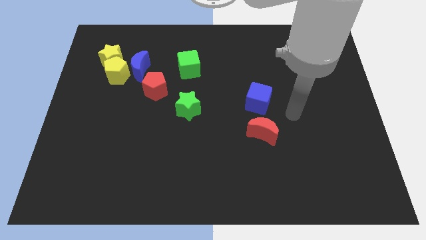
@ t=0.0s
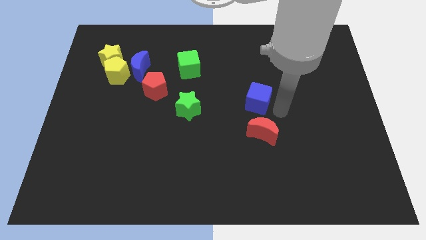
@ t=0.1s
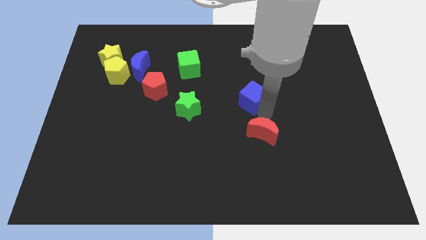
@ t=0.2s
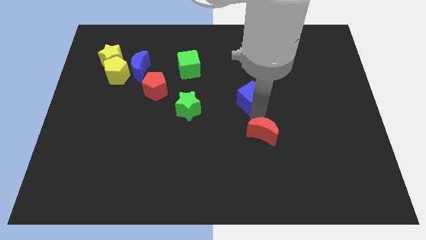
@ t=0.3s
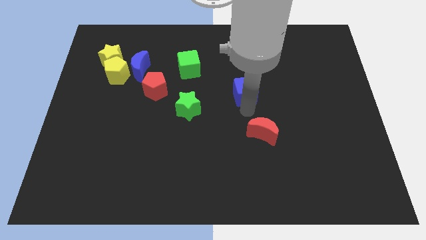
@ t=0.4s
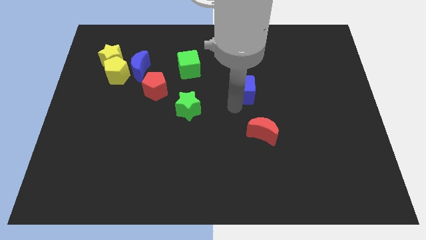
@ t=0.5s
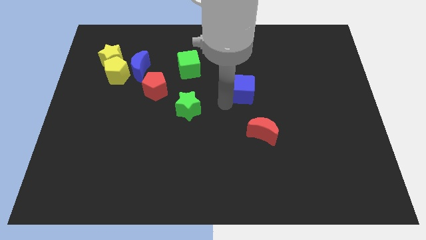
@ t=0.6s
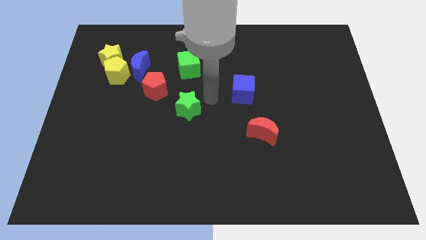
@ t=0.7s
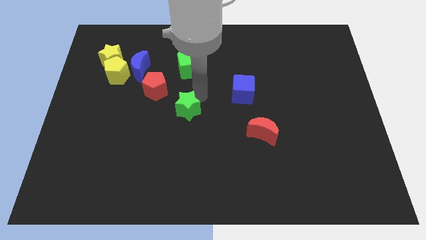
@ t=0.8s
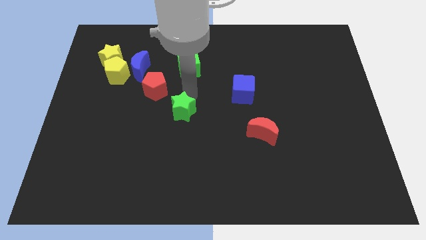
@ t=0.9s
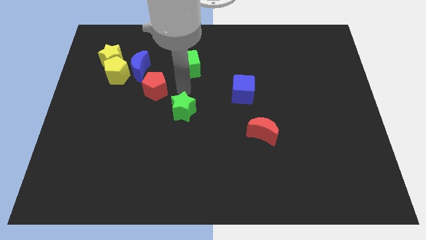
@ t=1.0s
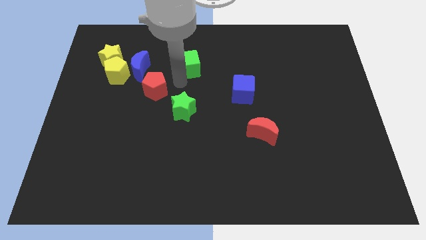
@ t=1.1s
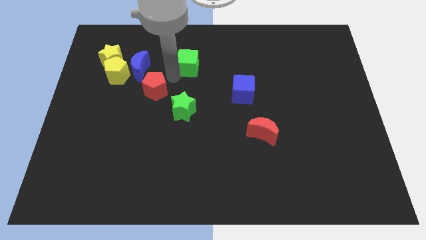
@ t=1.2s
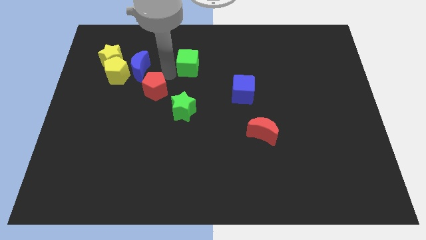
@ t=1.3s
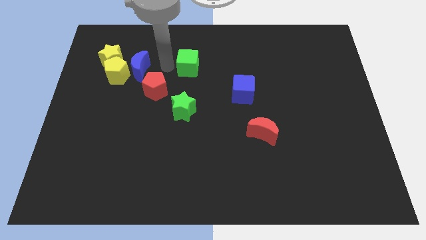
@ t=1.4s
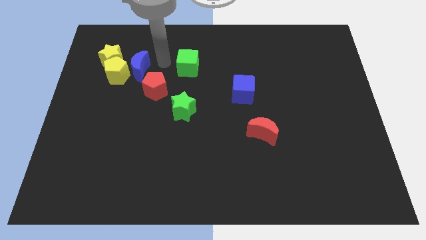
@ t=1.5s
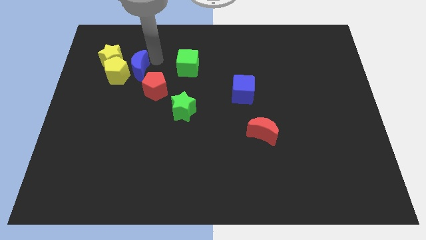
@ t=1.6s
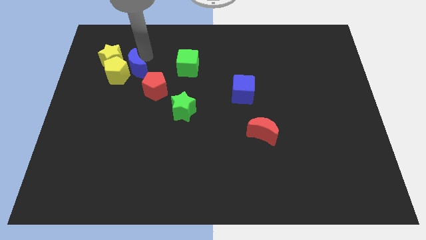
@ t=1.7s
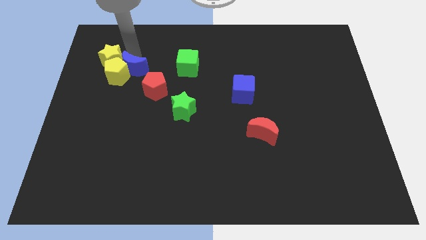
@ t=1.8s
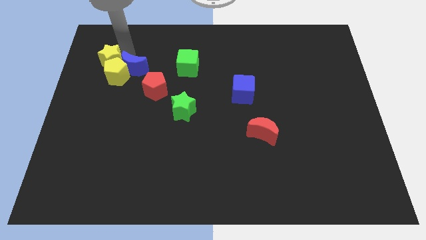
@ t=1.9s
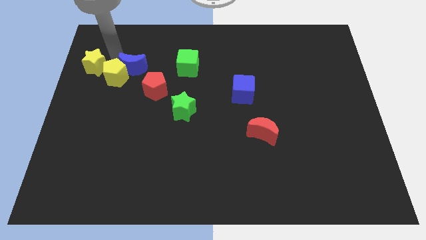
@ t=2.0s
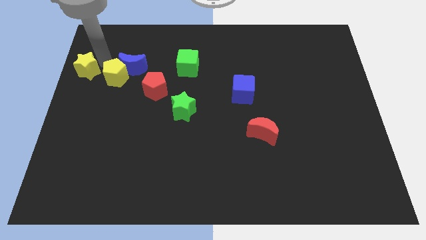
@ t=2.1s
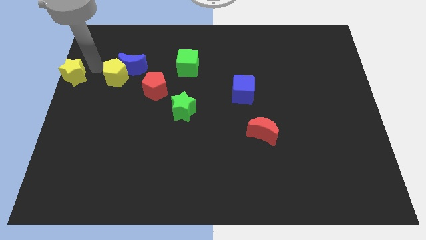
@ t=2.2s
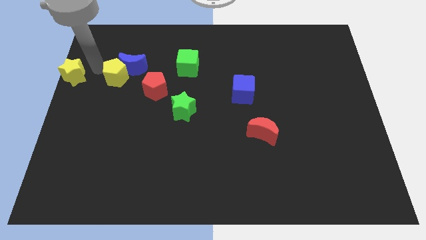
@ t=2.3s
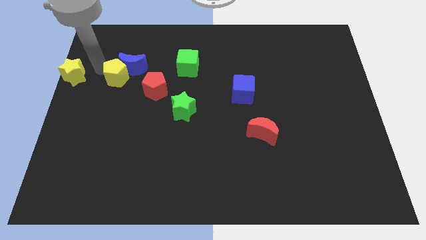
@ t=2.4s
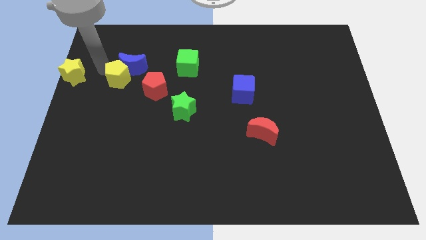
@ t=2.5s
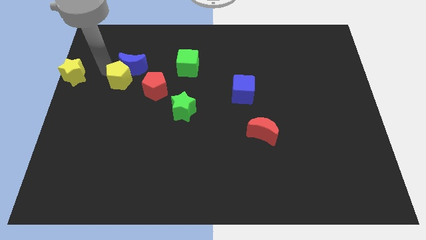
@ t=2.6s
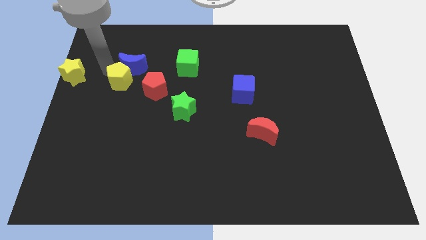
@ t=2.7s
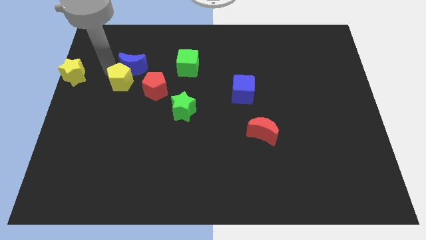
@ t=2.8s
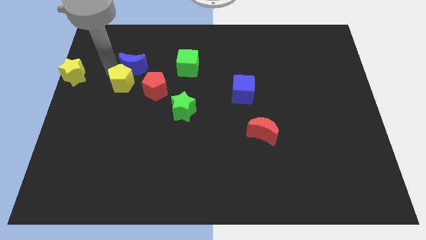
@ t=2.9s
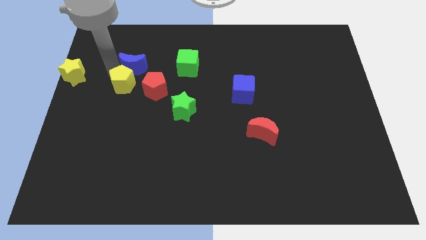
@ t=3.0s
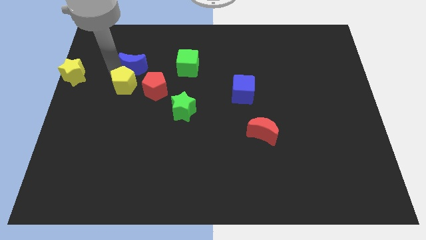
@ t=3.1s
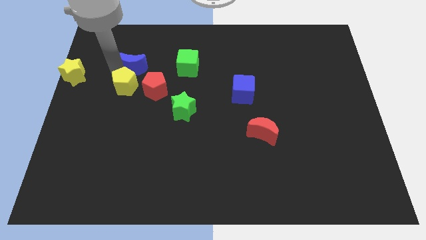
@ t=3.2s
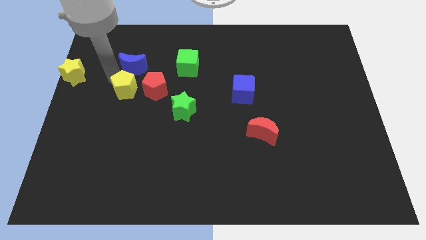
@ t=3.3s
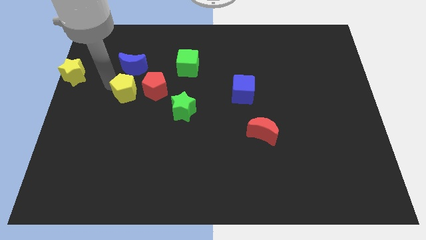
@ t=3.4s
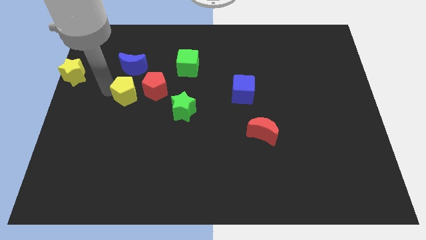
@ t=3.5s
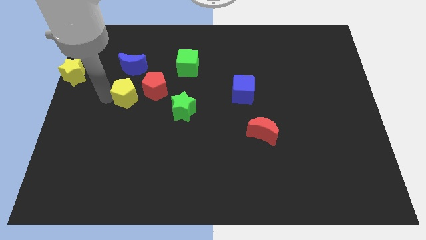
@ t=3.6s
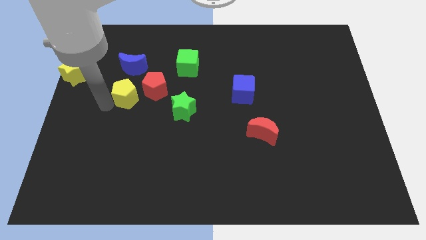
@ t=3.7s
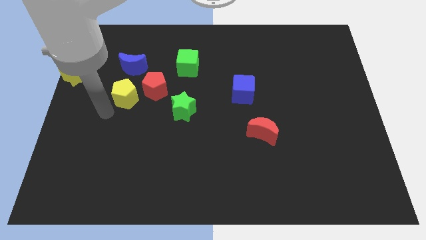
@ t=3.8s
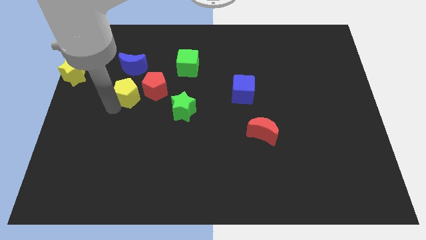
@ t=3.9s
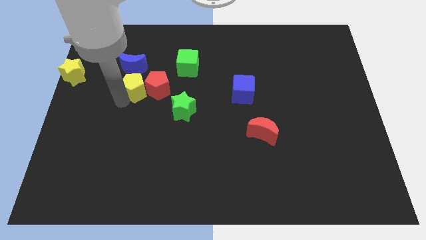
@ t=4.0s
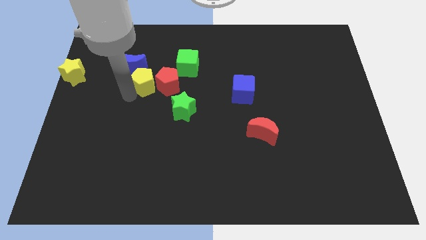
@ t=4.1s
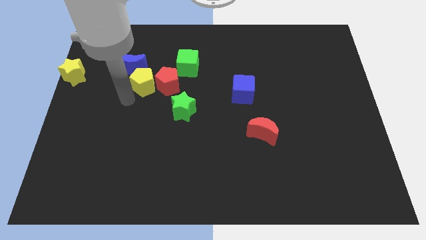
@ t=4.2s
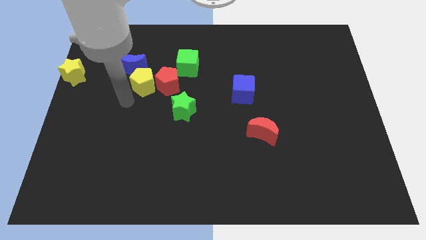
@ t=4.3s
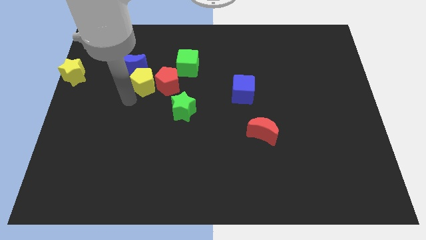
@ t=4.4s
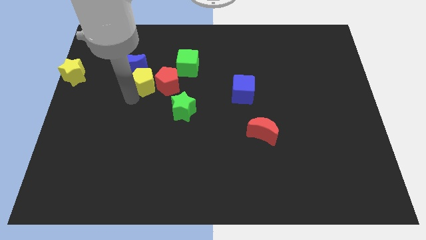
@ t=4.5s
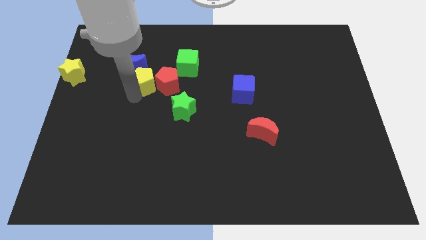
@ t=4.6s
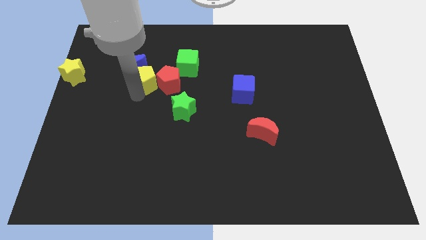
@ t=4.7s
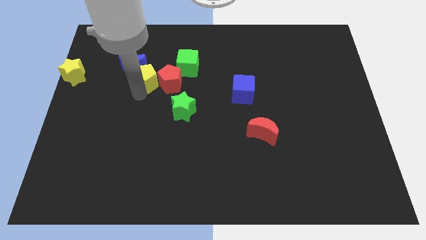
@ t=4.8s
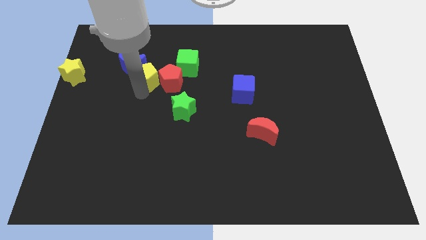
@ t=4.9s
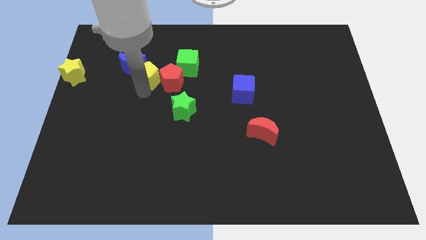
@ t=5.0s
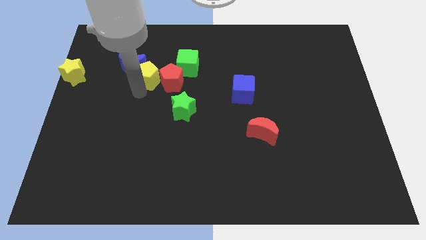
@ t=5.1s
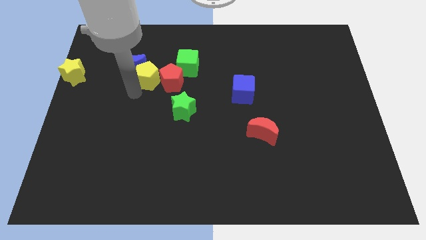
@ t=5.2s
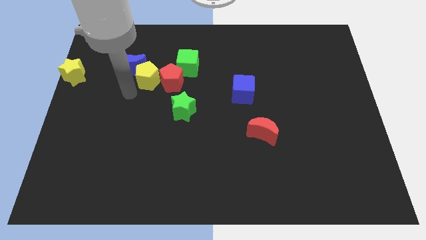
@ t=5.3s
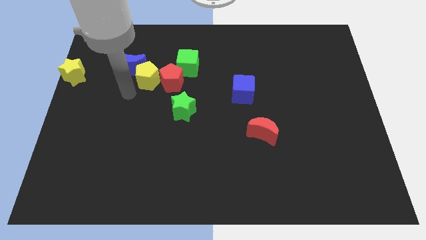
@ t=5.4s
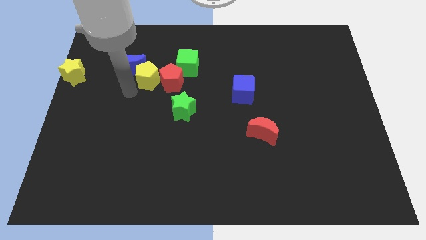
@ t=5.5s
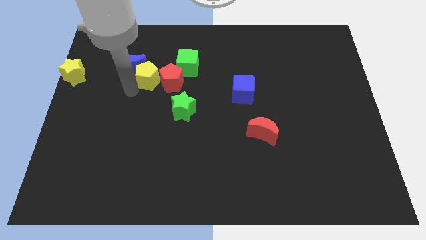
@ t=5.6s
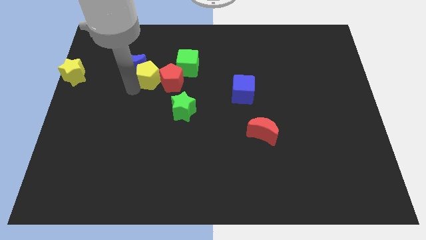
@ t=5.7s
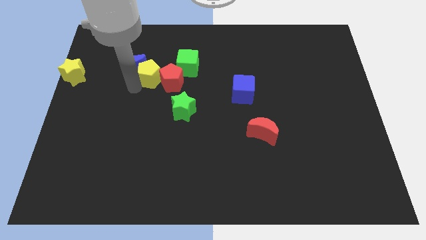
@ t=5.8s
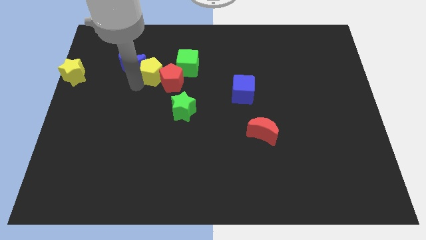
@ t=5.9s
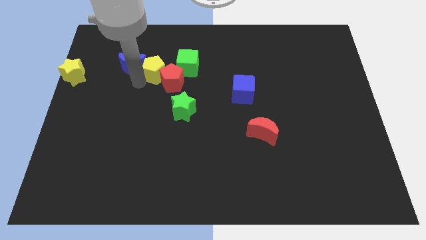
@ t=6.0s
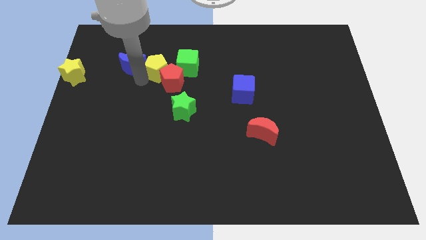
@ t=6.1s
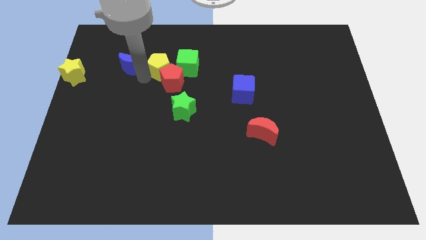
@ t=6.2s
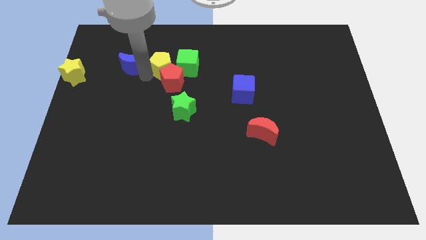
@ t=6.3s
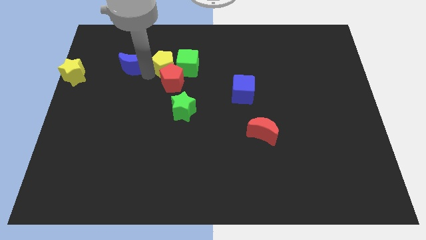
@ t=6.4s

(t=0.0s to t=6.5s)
push the yellow pentagon to the green cube

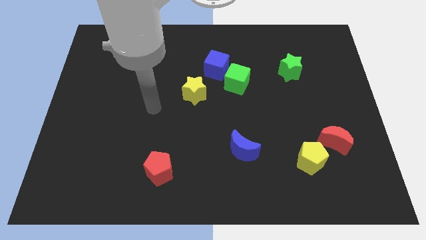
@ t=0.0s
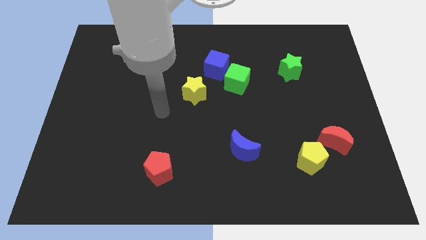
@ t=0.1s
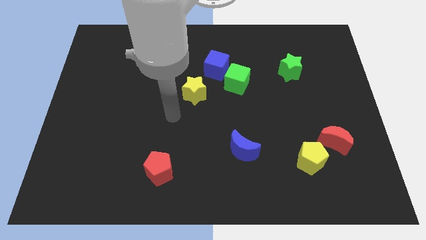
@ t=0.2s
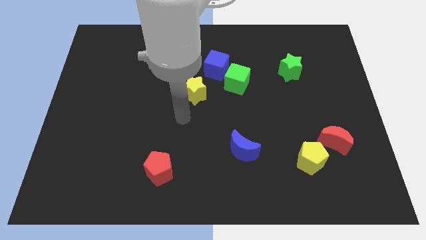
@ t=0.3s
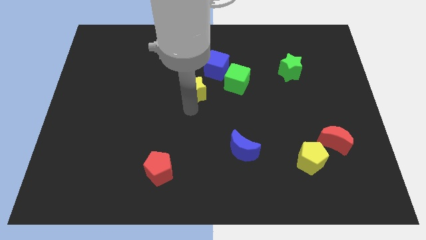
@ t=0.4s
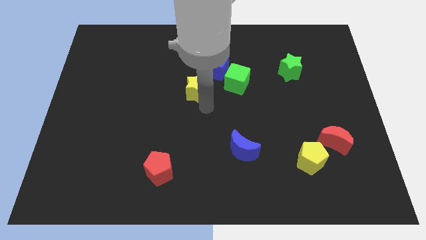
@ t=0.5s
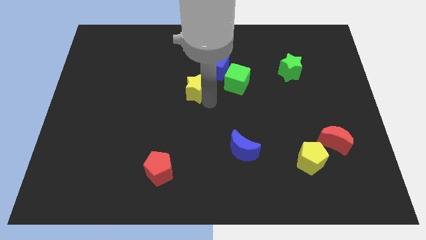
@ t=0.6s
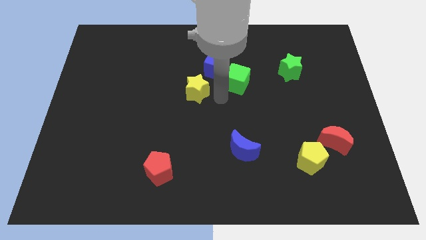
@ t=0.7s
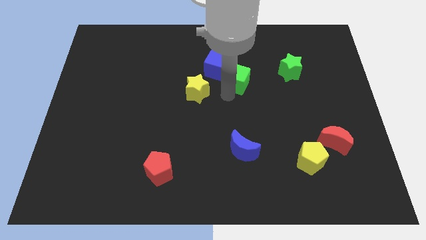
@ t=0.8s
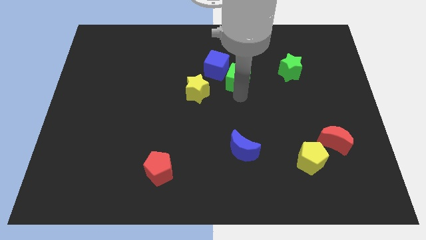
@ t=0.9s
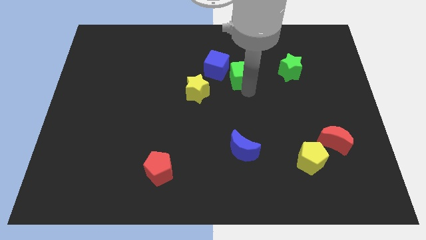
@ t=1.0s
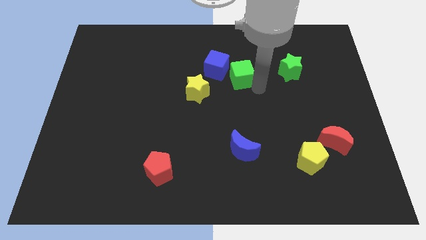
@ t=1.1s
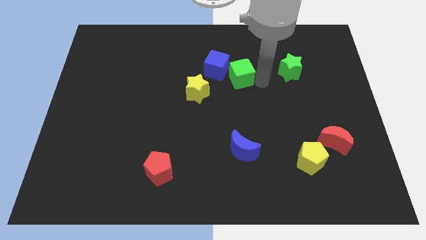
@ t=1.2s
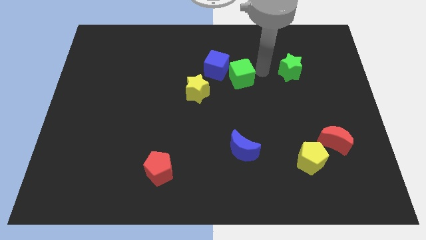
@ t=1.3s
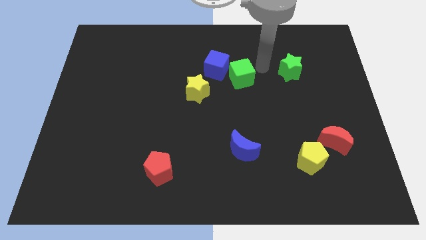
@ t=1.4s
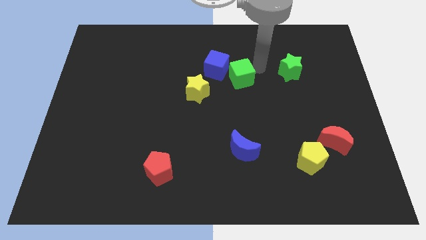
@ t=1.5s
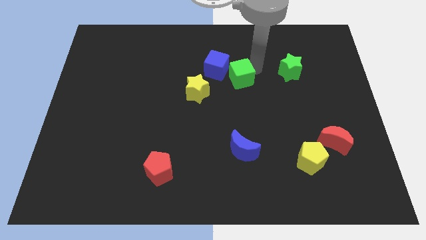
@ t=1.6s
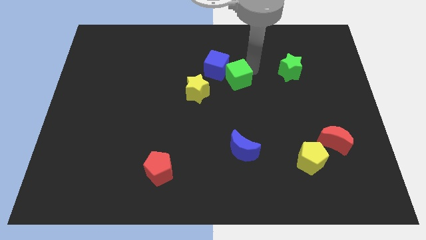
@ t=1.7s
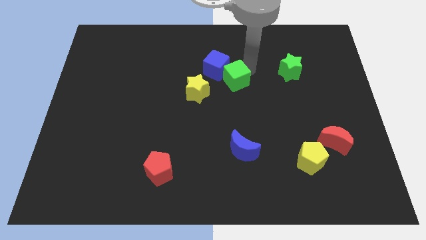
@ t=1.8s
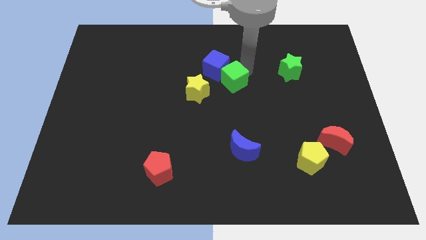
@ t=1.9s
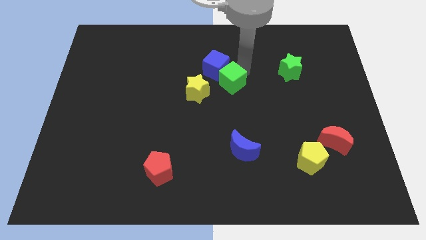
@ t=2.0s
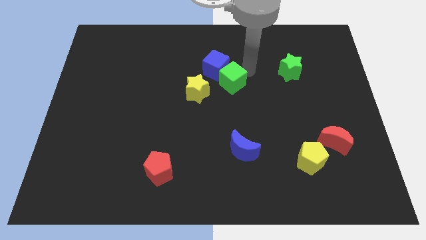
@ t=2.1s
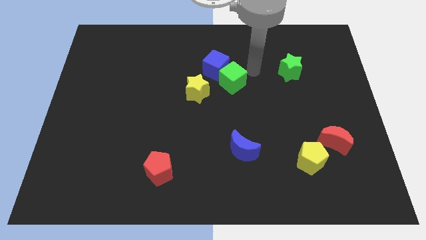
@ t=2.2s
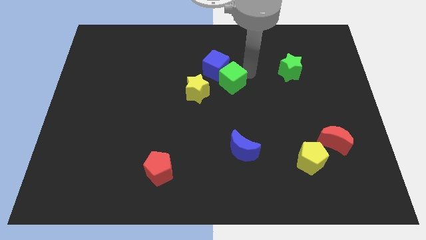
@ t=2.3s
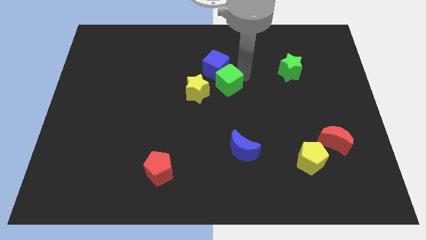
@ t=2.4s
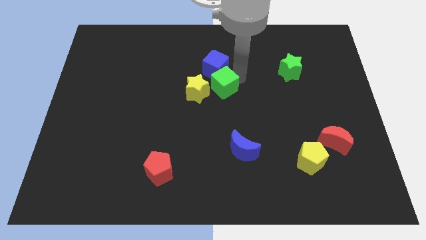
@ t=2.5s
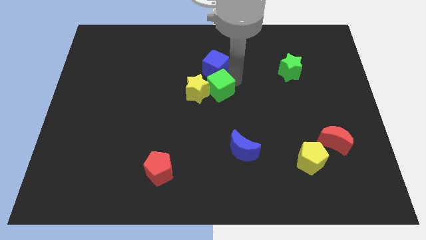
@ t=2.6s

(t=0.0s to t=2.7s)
put the green cube next to the yellow star
